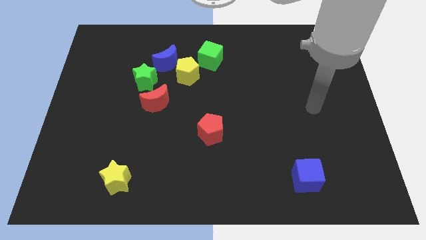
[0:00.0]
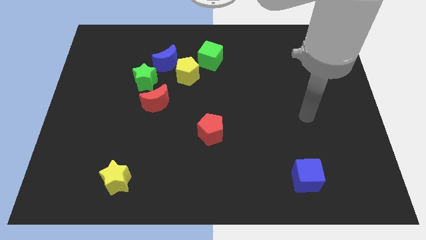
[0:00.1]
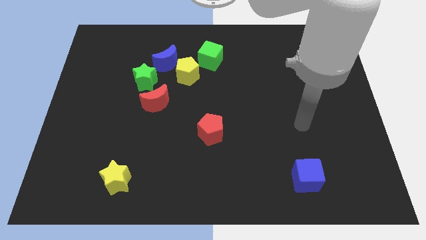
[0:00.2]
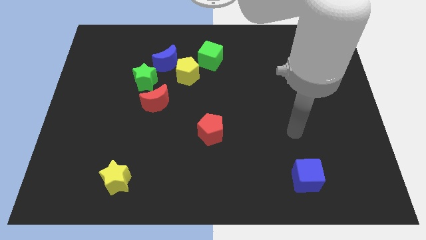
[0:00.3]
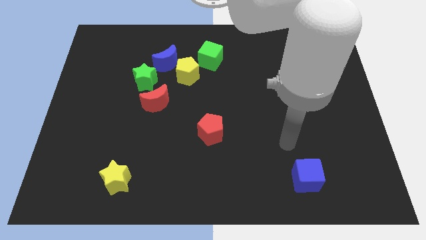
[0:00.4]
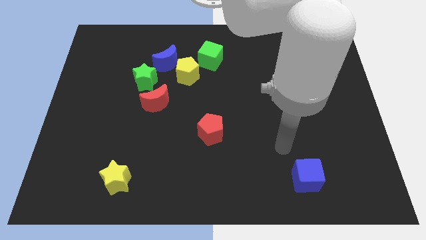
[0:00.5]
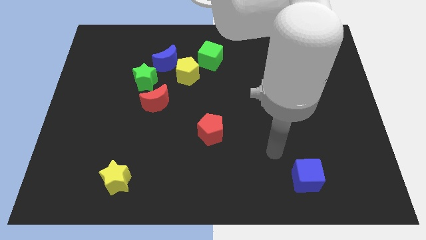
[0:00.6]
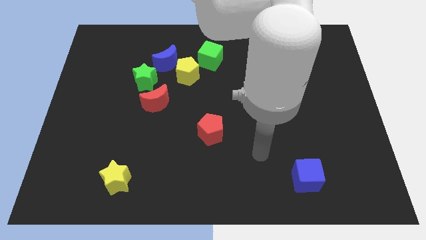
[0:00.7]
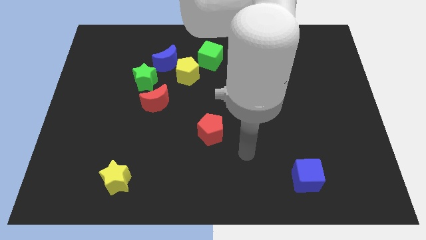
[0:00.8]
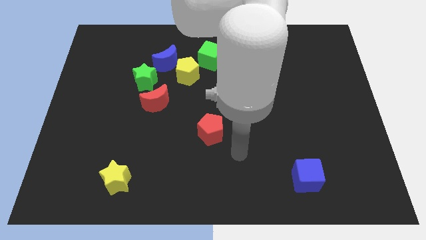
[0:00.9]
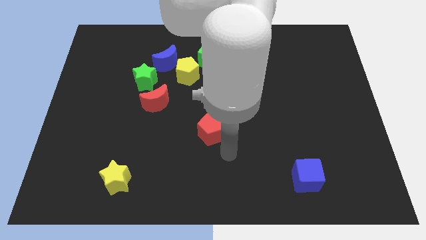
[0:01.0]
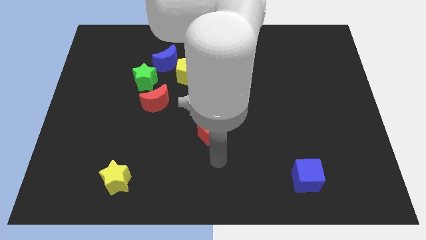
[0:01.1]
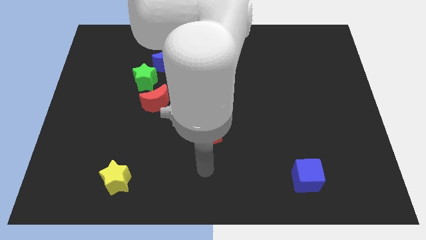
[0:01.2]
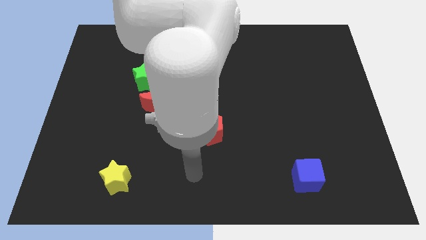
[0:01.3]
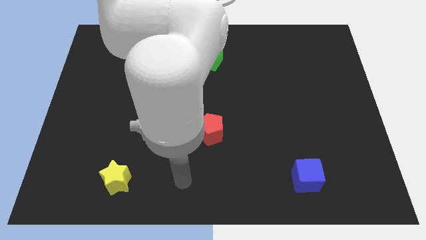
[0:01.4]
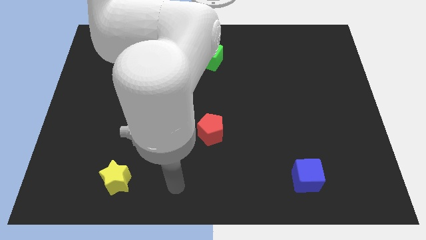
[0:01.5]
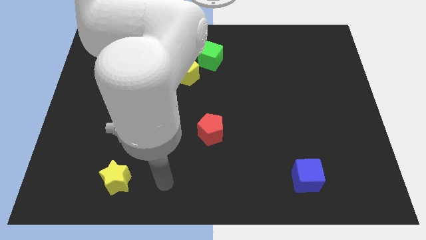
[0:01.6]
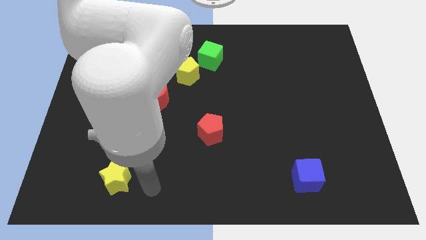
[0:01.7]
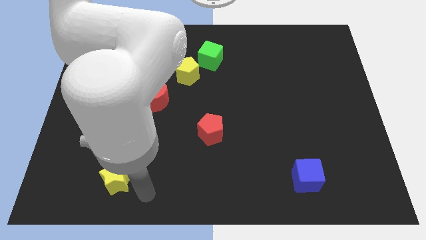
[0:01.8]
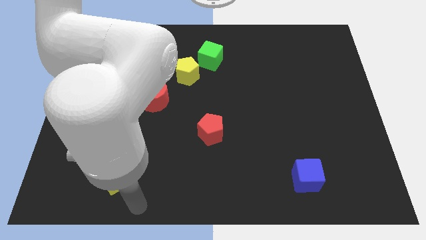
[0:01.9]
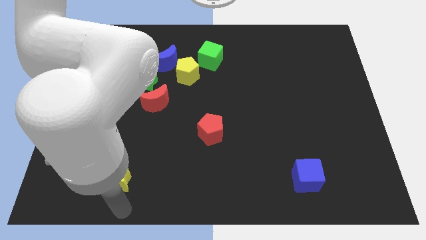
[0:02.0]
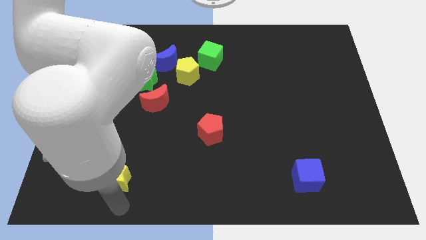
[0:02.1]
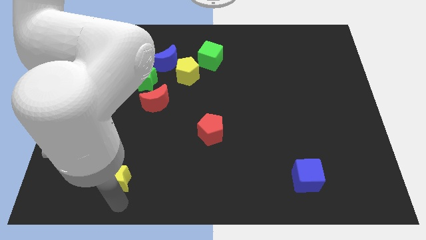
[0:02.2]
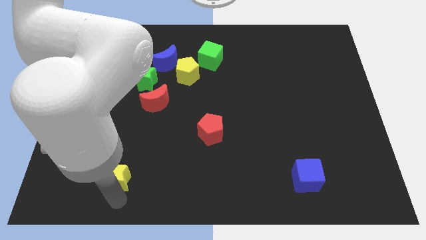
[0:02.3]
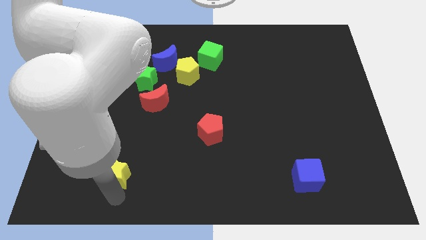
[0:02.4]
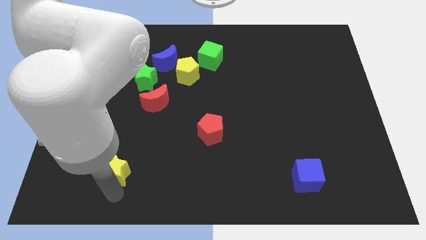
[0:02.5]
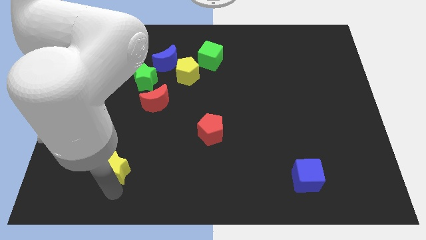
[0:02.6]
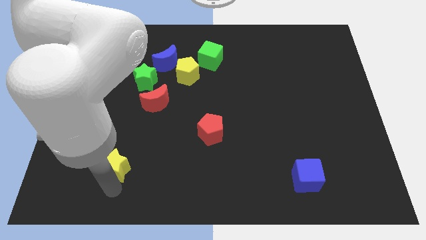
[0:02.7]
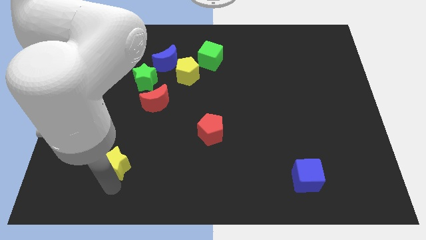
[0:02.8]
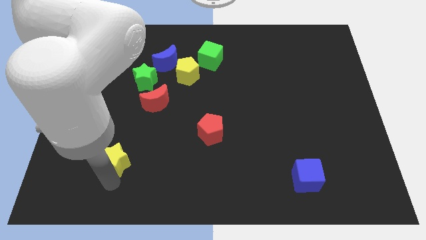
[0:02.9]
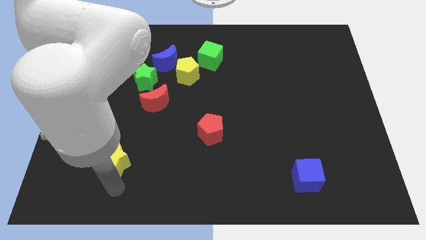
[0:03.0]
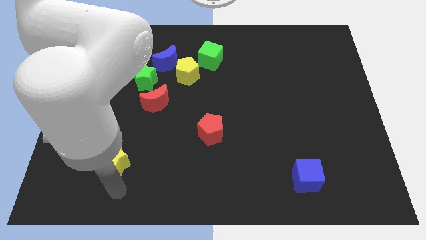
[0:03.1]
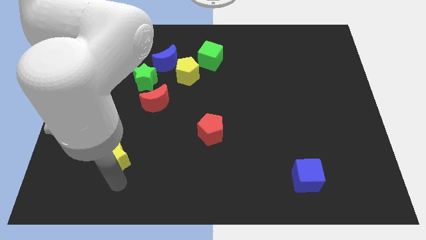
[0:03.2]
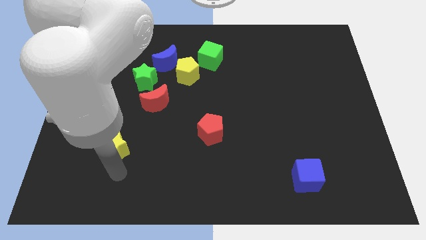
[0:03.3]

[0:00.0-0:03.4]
slightly move the yellow star upwards

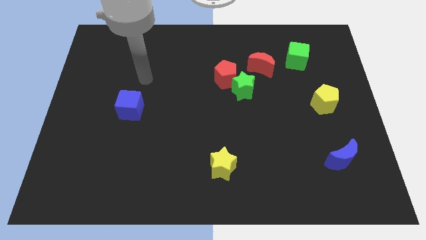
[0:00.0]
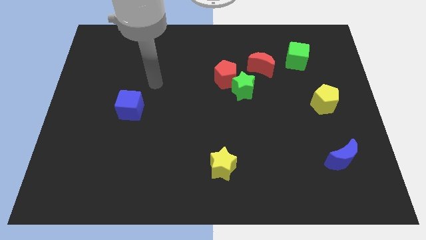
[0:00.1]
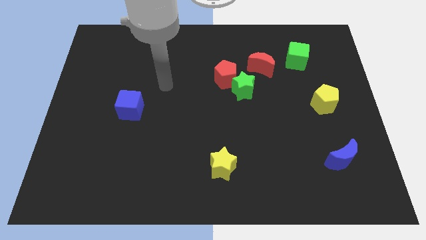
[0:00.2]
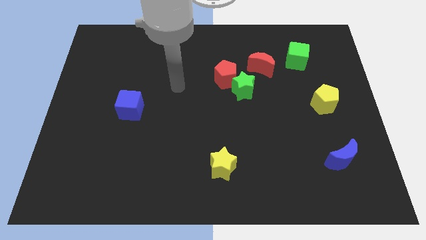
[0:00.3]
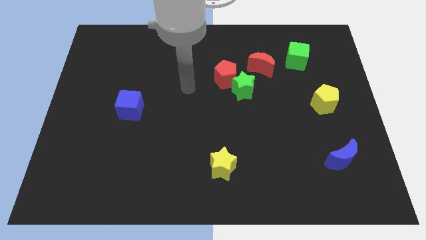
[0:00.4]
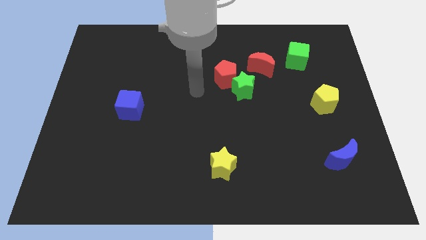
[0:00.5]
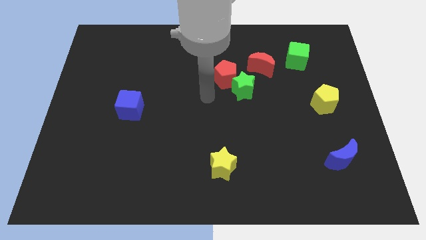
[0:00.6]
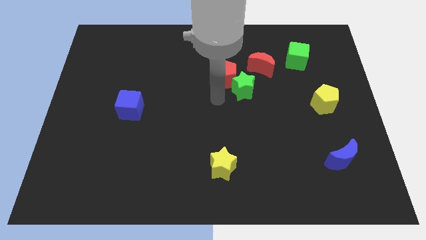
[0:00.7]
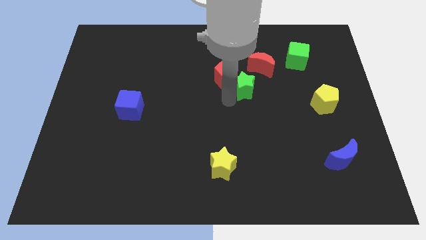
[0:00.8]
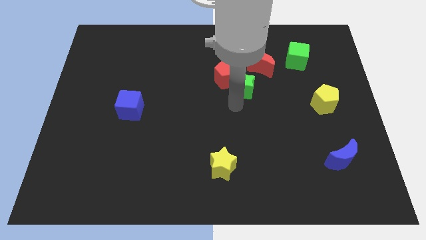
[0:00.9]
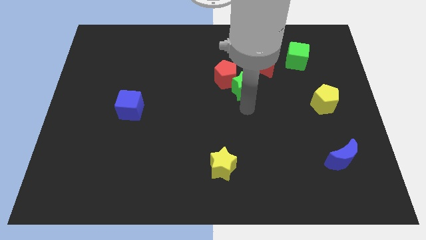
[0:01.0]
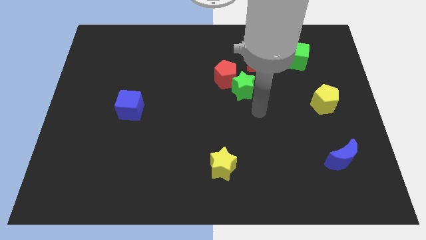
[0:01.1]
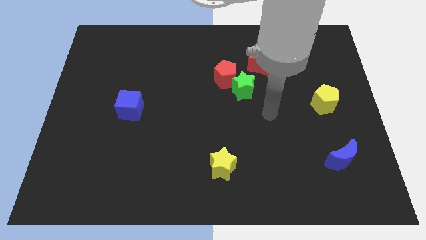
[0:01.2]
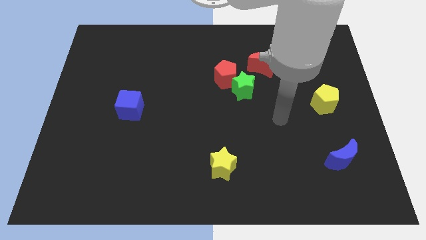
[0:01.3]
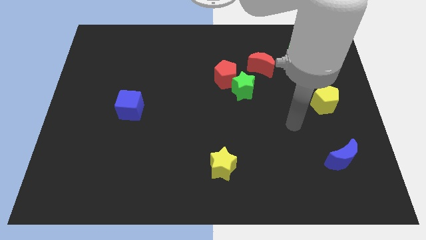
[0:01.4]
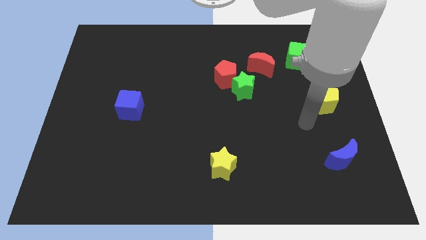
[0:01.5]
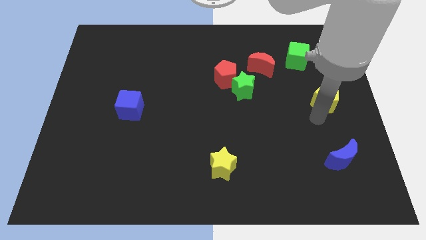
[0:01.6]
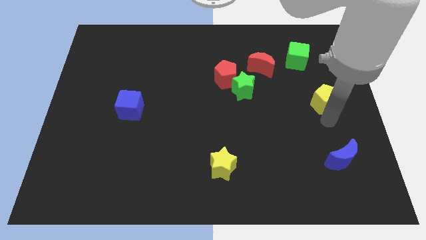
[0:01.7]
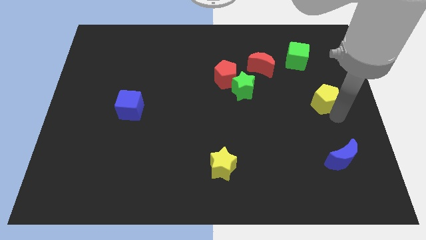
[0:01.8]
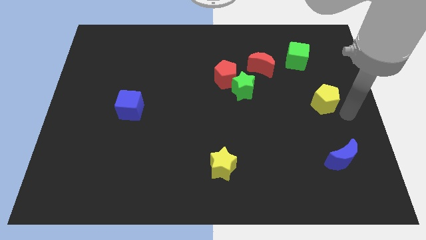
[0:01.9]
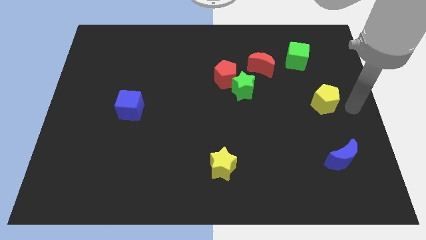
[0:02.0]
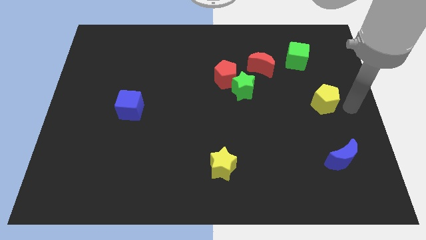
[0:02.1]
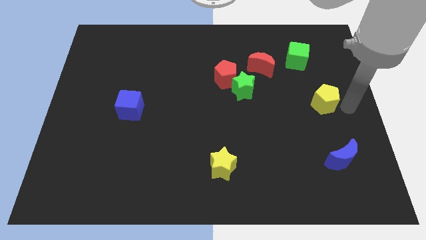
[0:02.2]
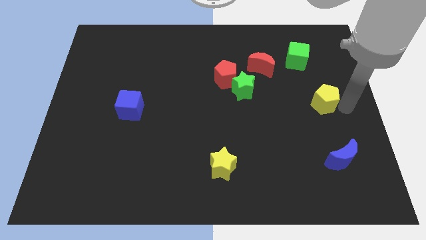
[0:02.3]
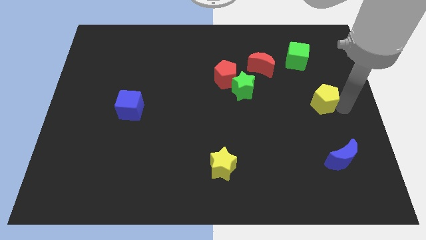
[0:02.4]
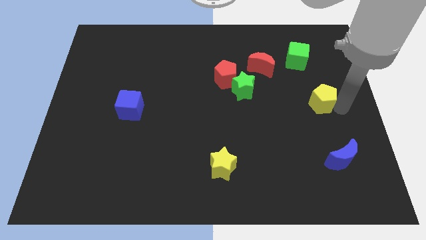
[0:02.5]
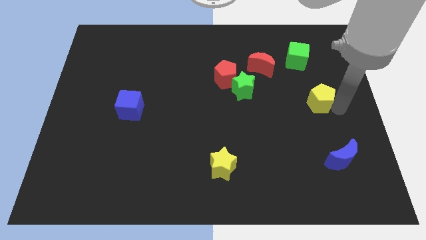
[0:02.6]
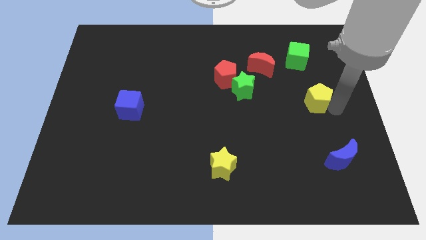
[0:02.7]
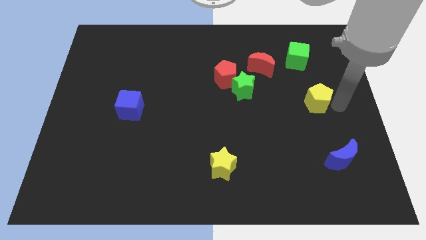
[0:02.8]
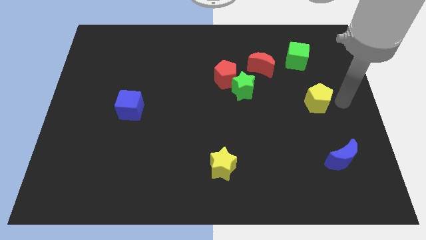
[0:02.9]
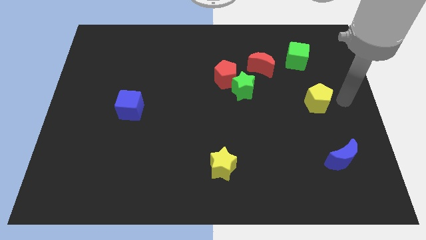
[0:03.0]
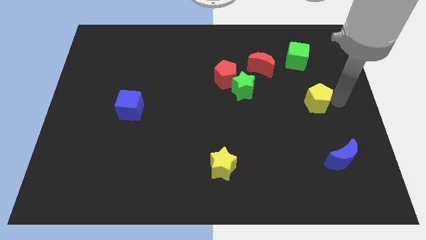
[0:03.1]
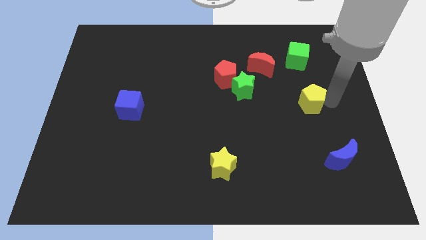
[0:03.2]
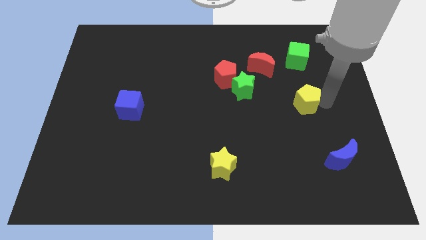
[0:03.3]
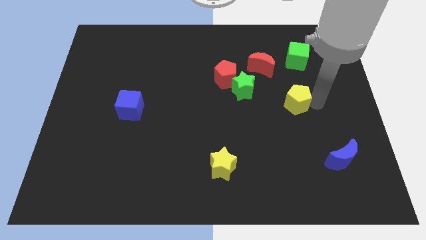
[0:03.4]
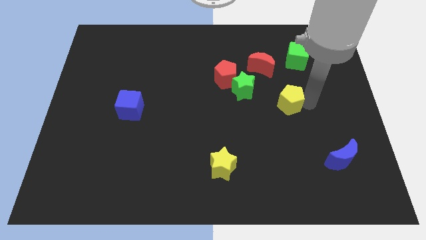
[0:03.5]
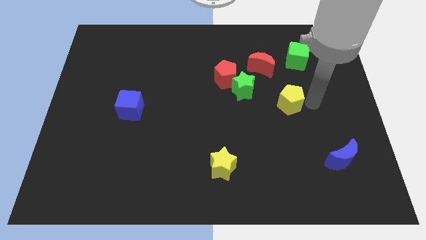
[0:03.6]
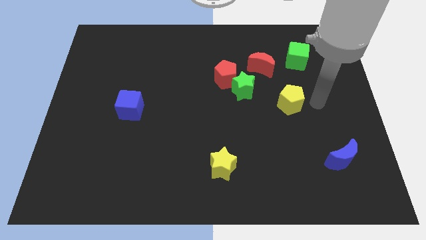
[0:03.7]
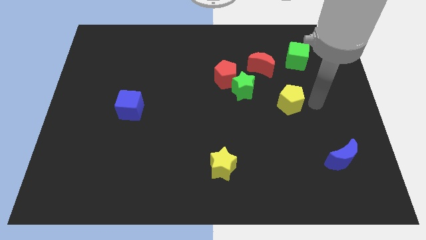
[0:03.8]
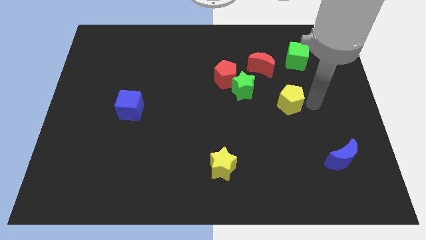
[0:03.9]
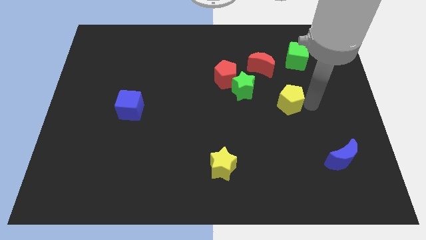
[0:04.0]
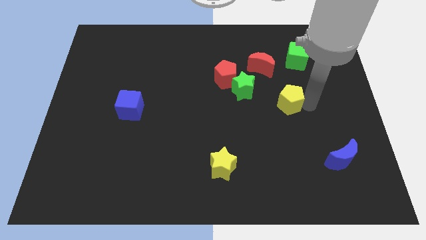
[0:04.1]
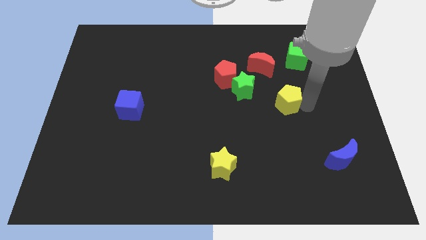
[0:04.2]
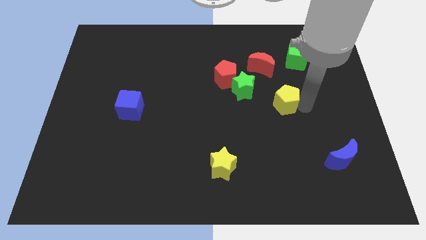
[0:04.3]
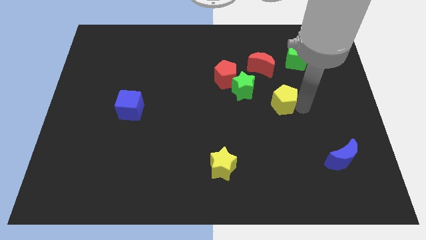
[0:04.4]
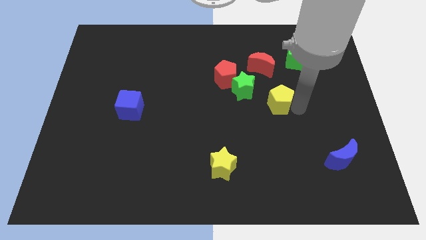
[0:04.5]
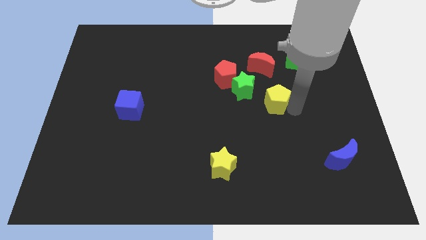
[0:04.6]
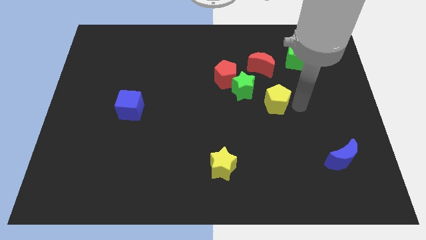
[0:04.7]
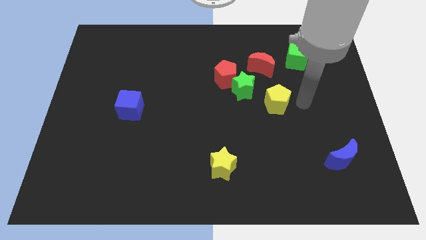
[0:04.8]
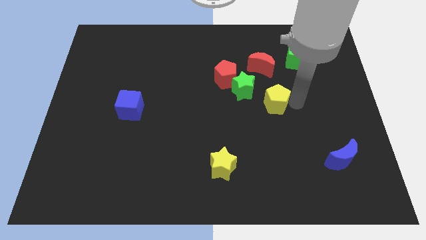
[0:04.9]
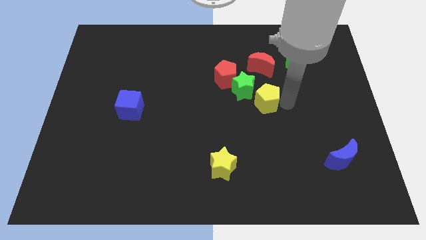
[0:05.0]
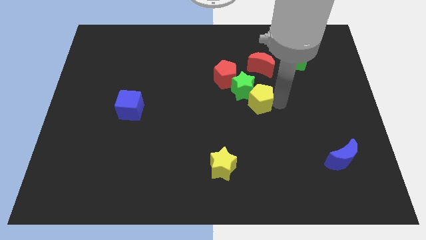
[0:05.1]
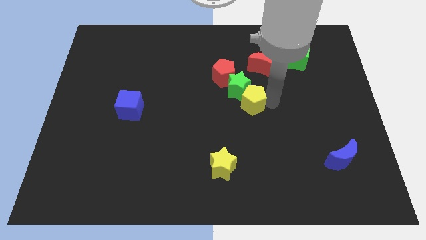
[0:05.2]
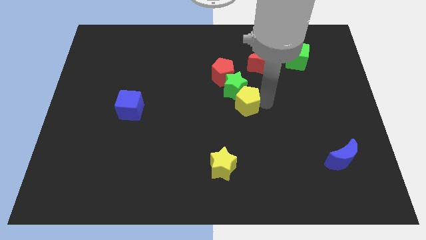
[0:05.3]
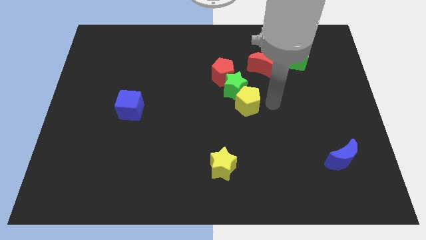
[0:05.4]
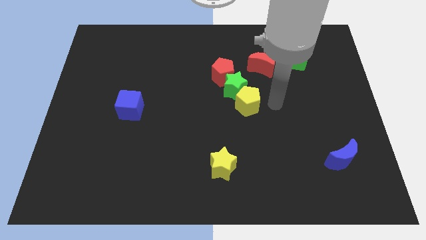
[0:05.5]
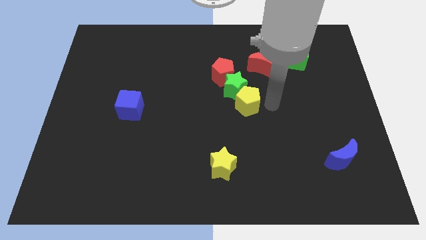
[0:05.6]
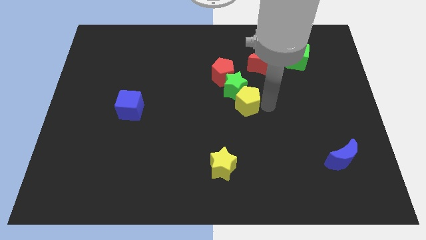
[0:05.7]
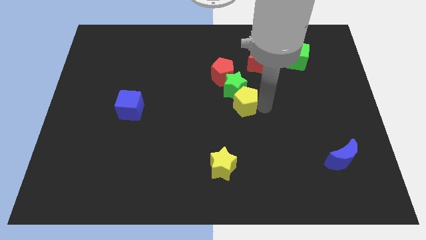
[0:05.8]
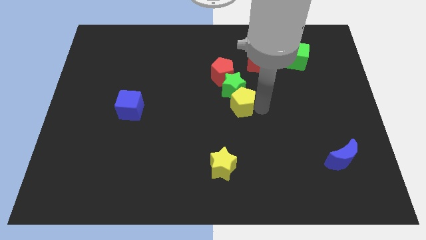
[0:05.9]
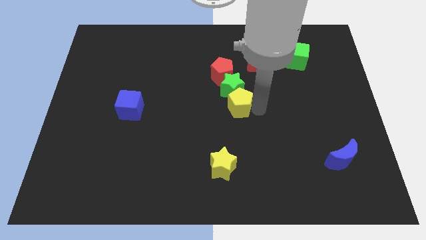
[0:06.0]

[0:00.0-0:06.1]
slide the yellow pentagon to the left
